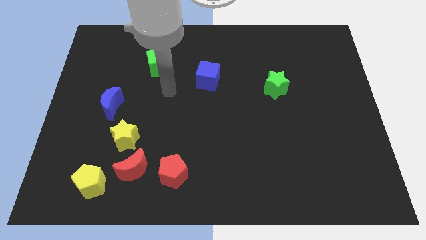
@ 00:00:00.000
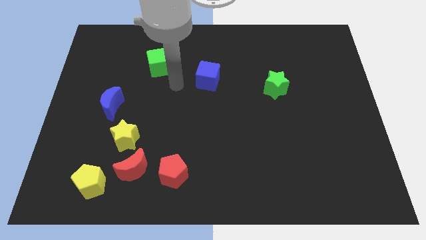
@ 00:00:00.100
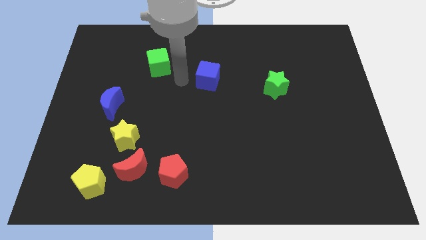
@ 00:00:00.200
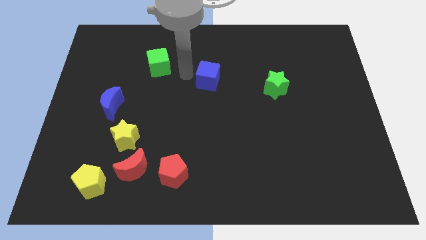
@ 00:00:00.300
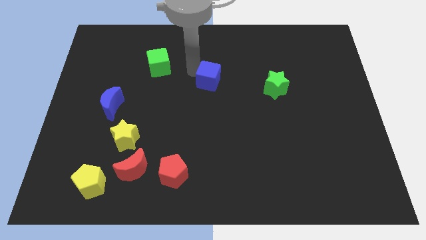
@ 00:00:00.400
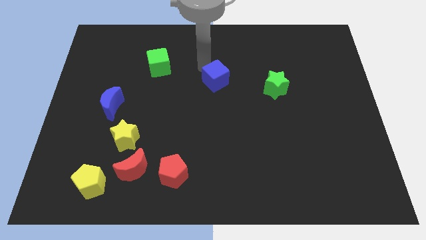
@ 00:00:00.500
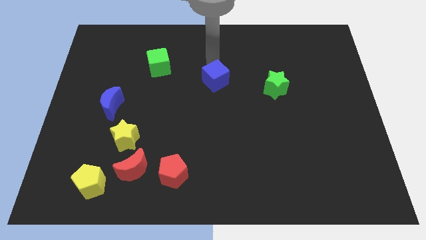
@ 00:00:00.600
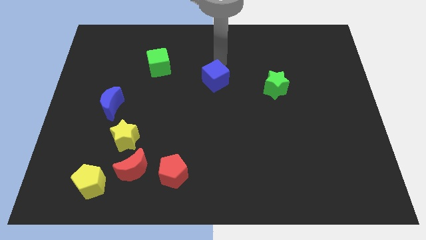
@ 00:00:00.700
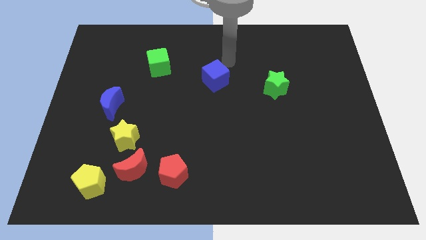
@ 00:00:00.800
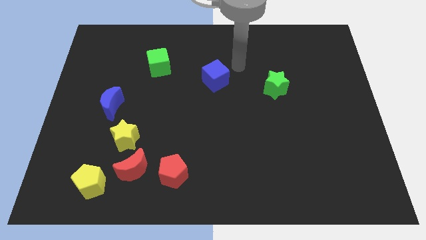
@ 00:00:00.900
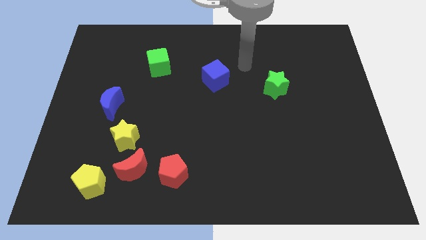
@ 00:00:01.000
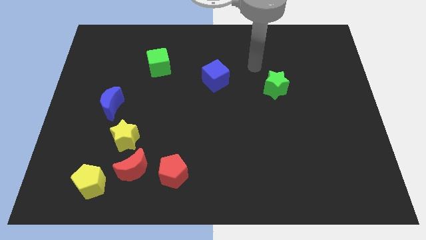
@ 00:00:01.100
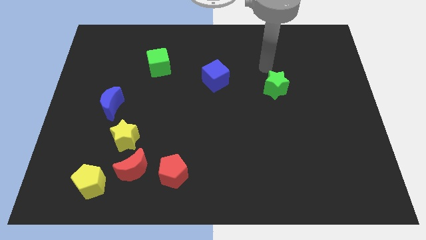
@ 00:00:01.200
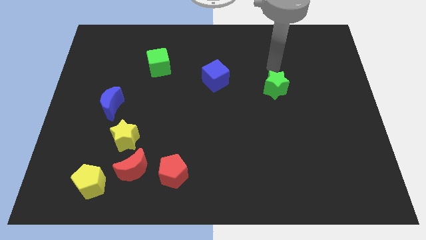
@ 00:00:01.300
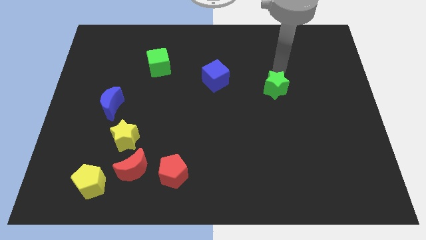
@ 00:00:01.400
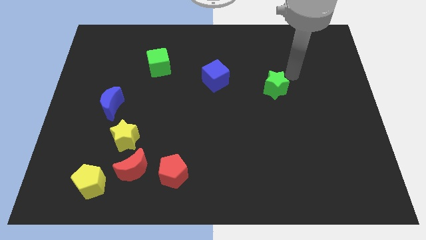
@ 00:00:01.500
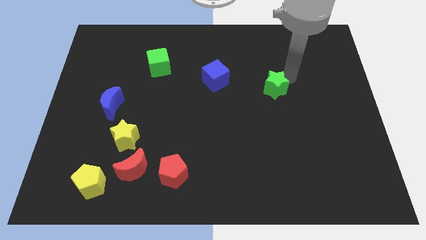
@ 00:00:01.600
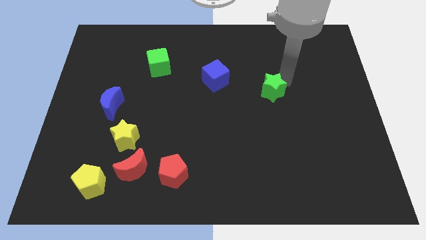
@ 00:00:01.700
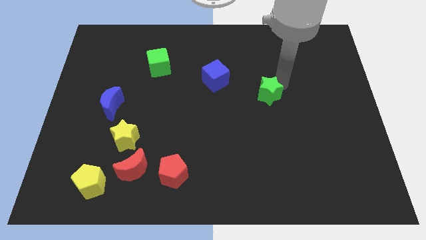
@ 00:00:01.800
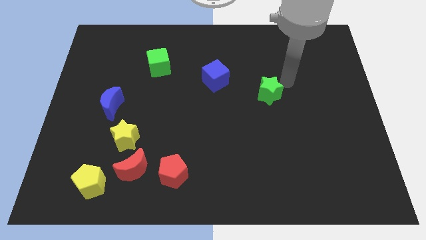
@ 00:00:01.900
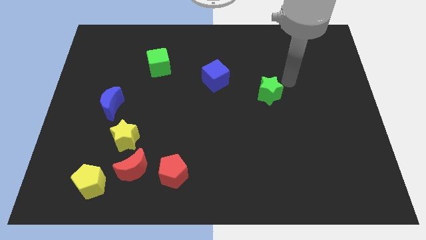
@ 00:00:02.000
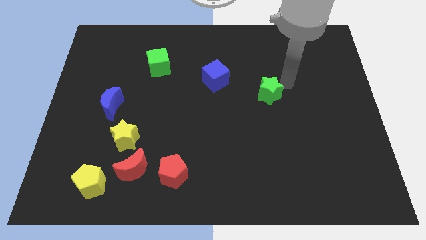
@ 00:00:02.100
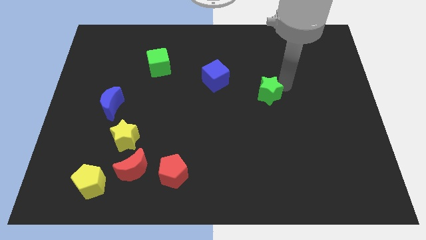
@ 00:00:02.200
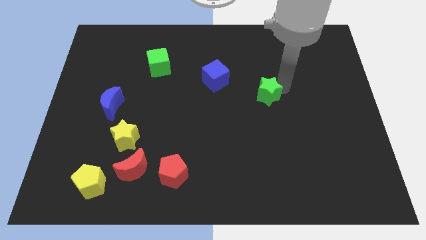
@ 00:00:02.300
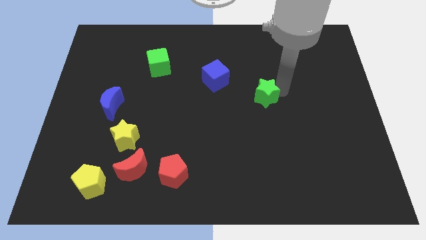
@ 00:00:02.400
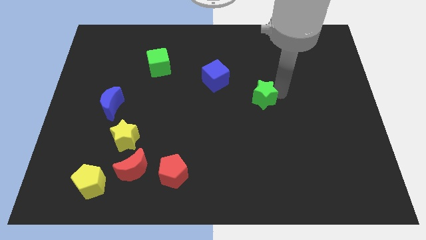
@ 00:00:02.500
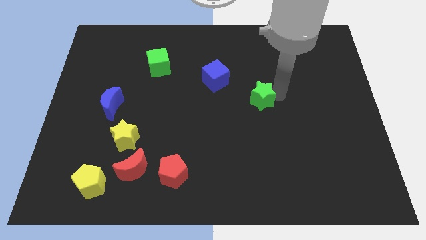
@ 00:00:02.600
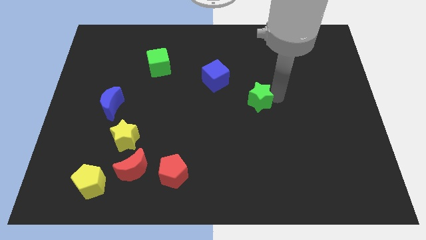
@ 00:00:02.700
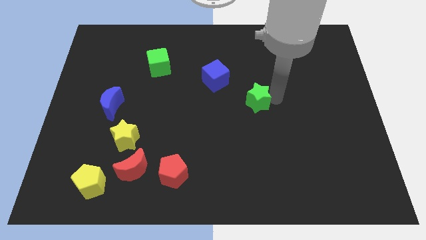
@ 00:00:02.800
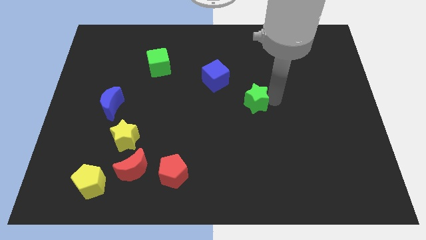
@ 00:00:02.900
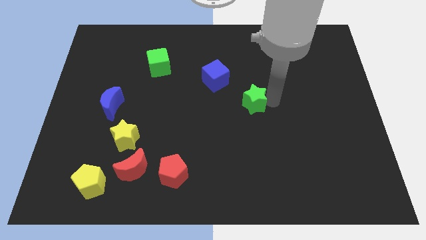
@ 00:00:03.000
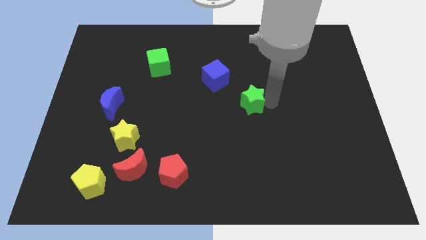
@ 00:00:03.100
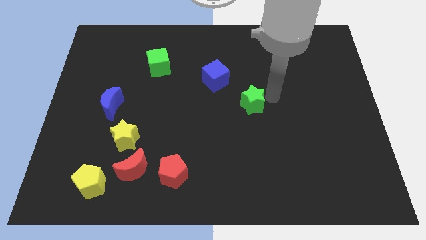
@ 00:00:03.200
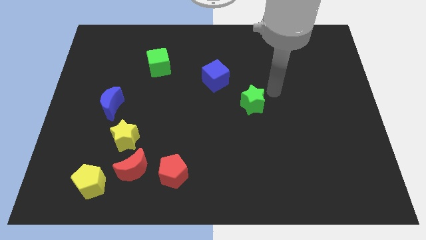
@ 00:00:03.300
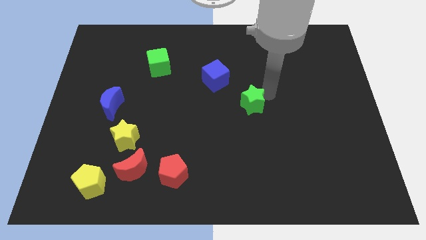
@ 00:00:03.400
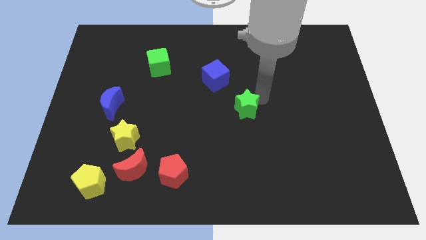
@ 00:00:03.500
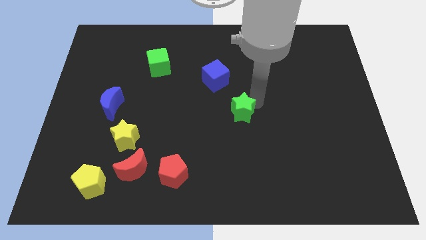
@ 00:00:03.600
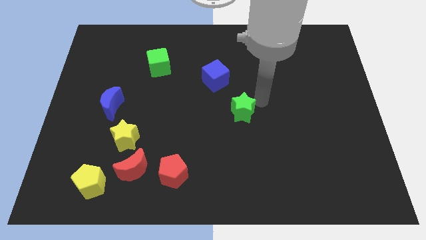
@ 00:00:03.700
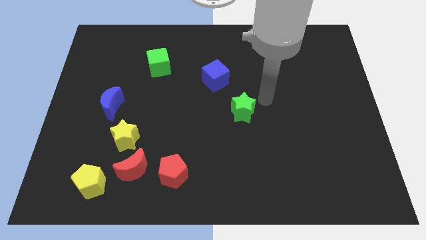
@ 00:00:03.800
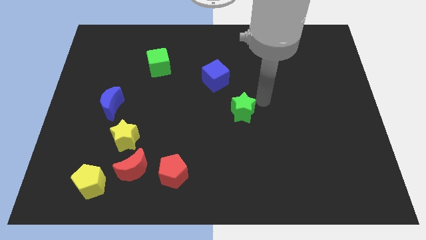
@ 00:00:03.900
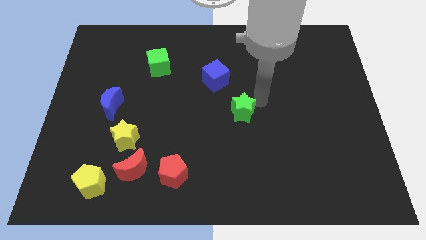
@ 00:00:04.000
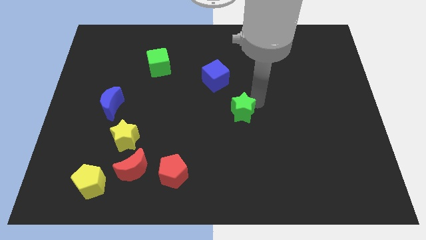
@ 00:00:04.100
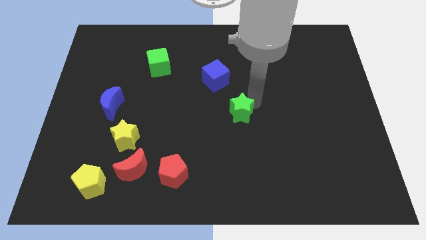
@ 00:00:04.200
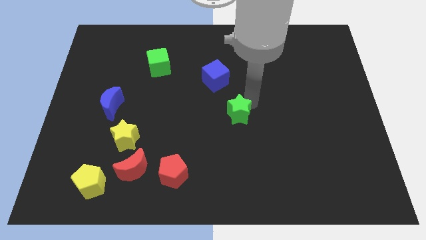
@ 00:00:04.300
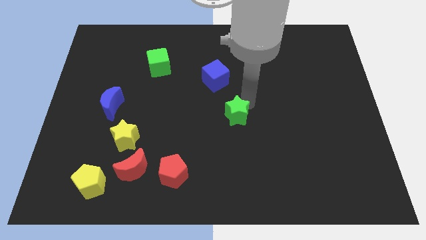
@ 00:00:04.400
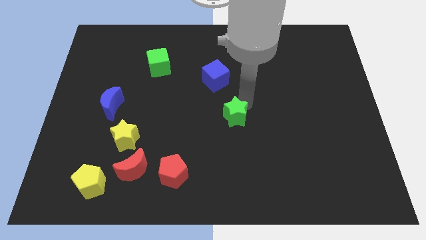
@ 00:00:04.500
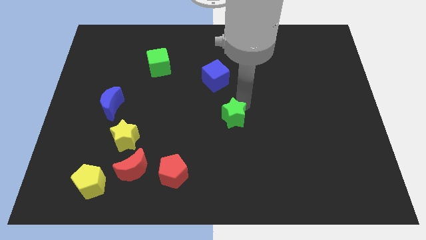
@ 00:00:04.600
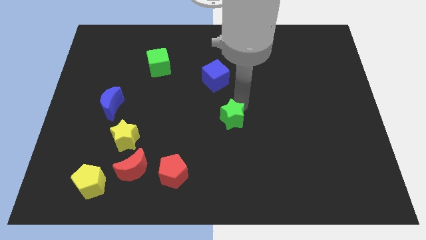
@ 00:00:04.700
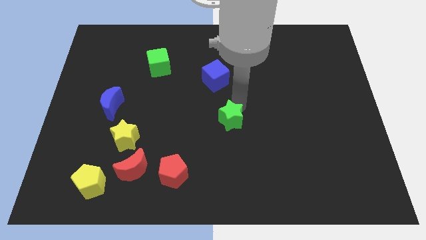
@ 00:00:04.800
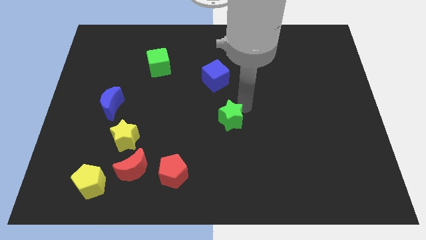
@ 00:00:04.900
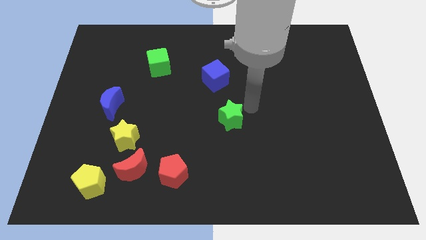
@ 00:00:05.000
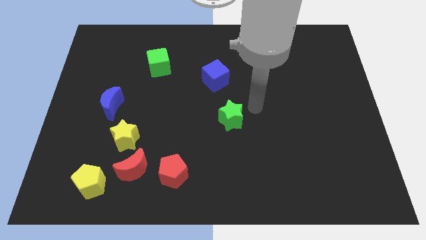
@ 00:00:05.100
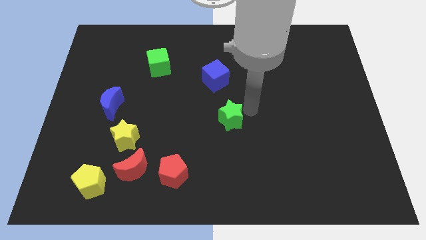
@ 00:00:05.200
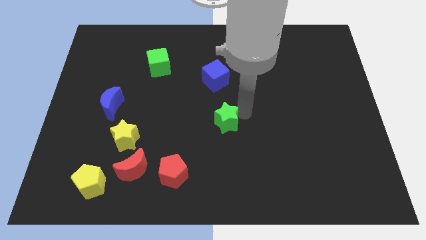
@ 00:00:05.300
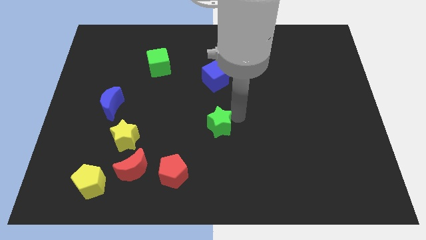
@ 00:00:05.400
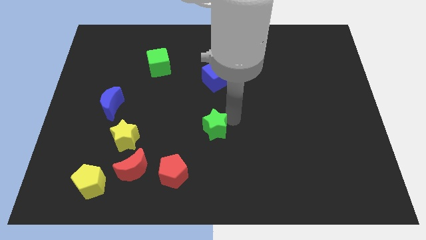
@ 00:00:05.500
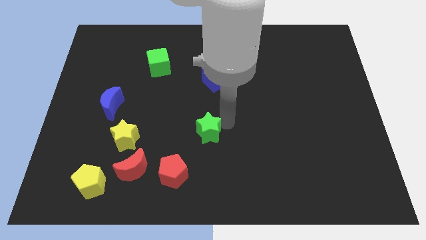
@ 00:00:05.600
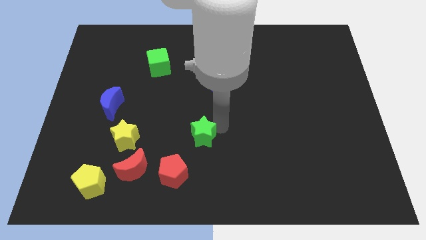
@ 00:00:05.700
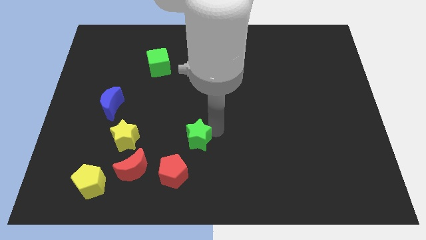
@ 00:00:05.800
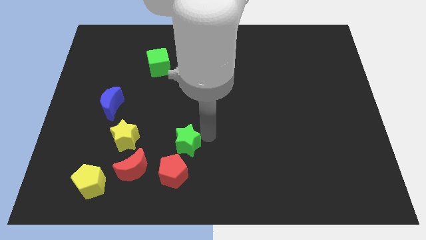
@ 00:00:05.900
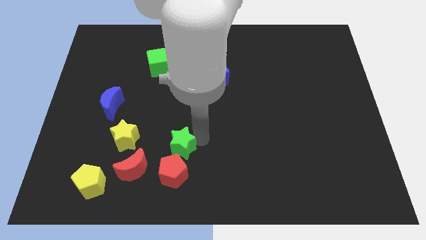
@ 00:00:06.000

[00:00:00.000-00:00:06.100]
slide the green star to the top right of the red moon
